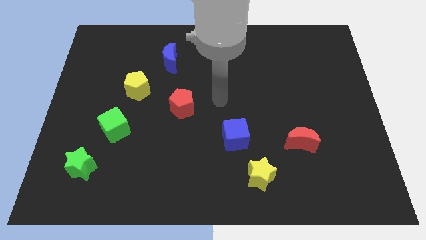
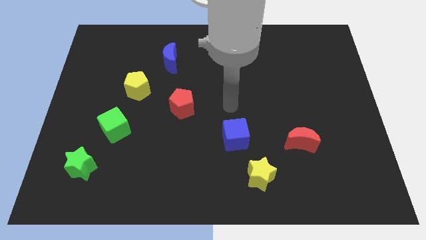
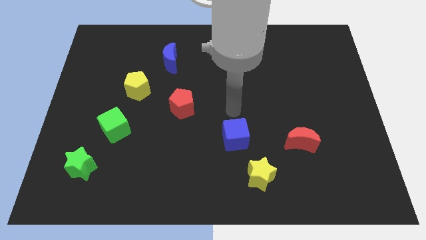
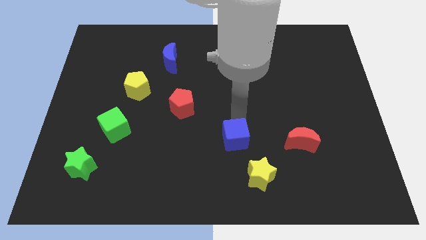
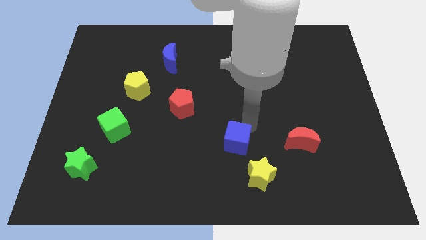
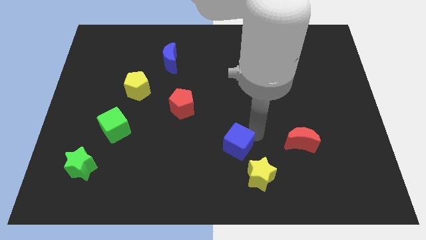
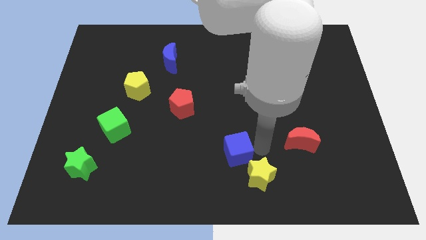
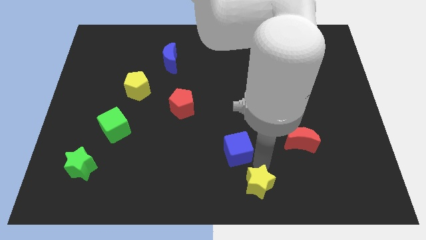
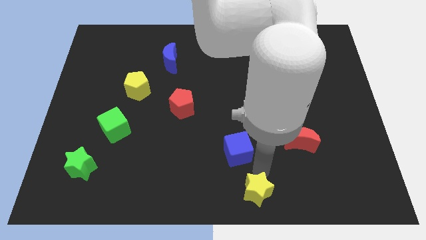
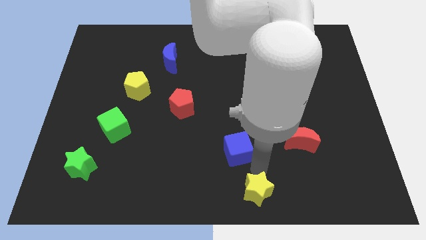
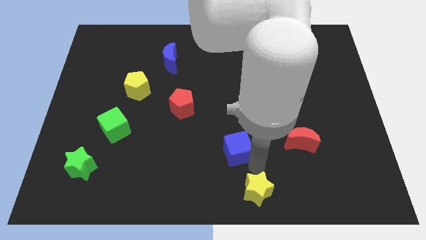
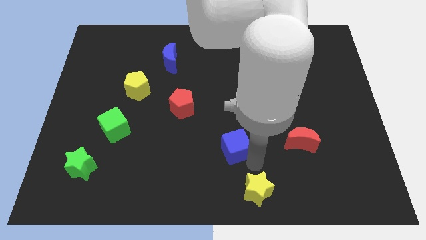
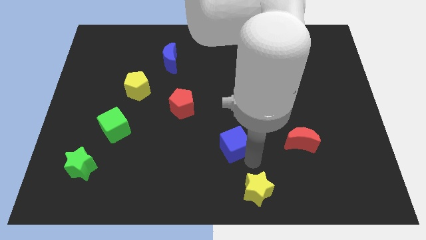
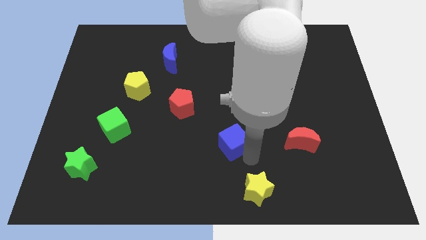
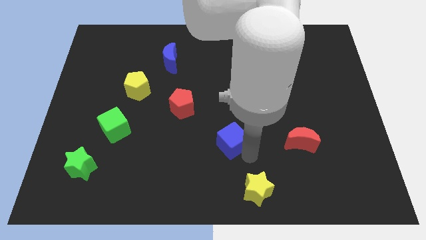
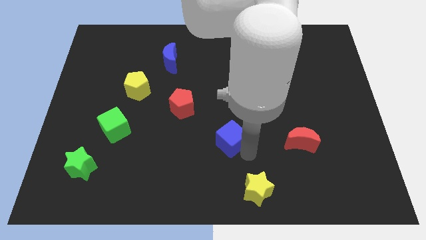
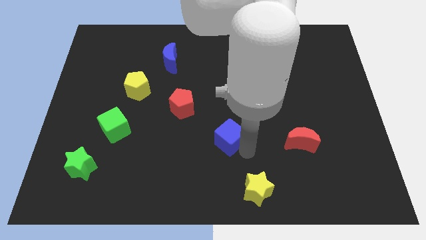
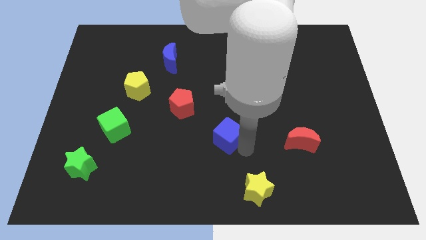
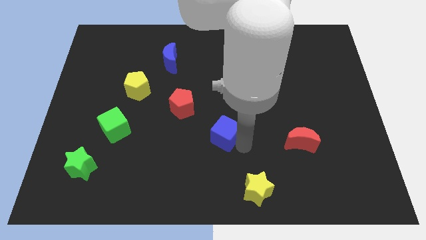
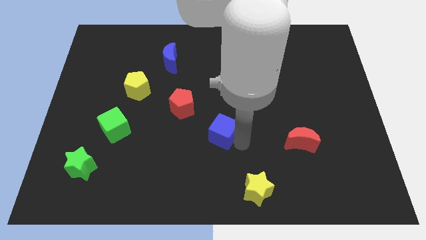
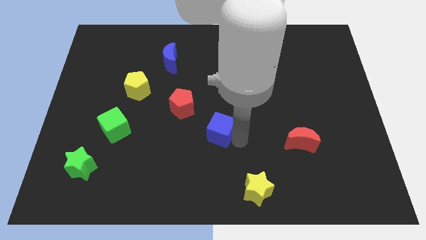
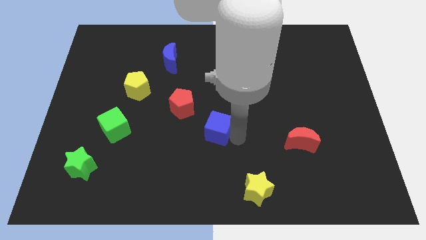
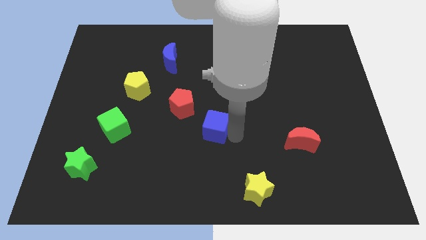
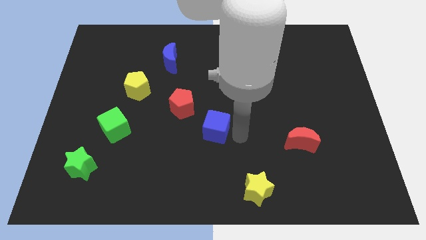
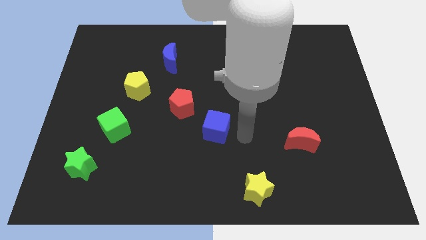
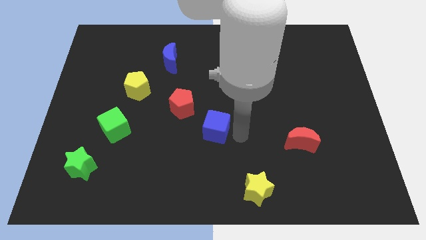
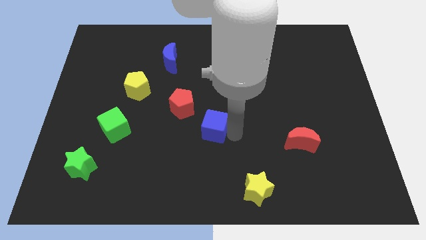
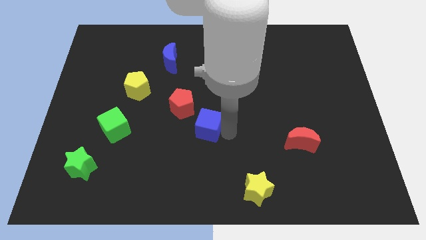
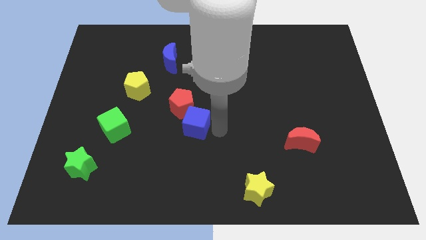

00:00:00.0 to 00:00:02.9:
move the blue cube up and to the left a little bit

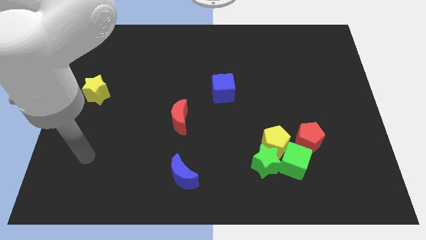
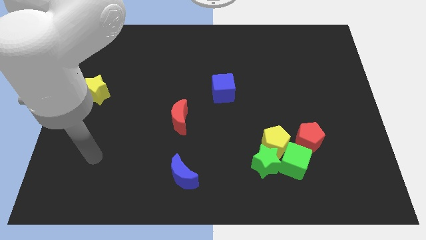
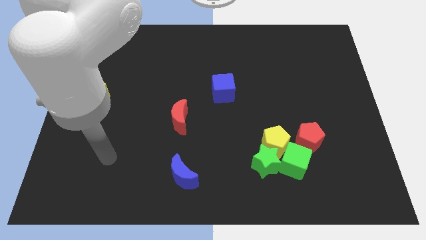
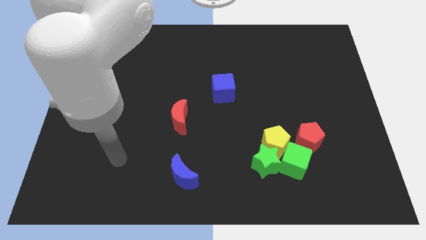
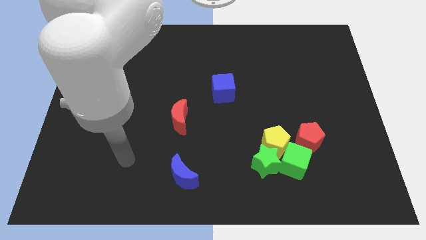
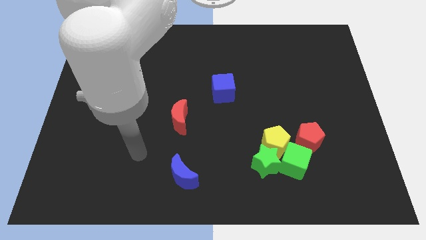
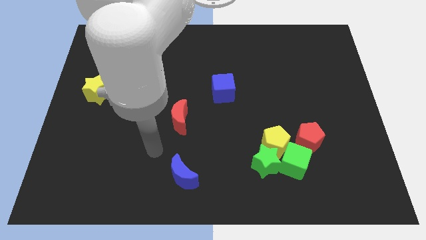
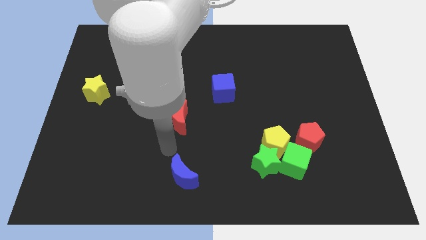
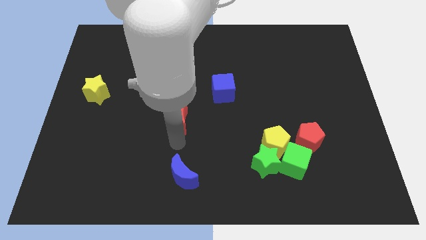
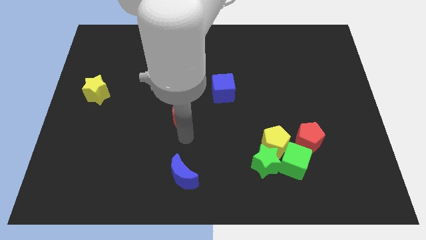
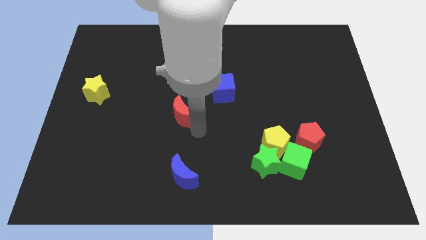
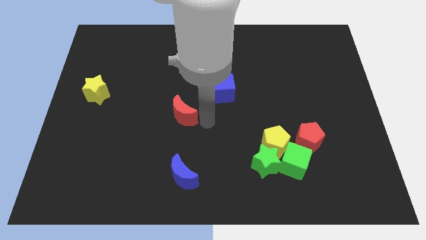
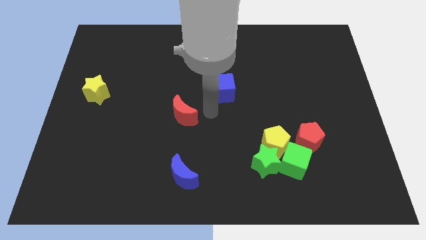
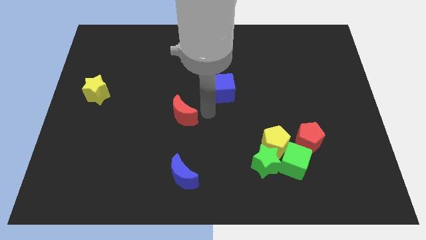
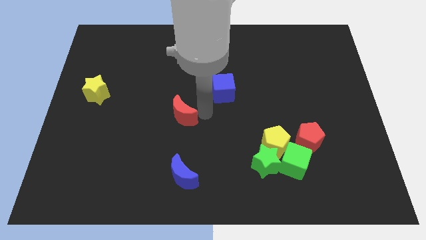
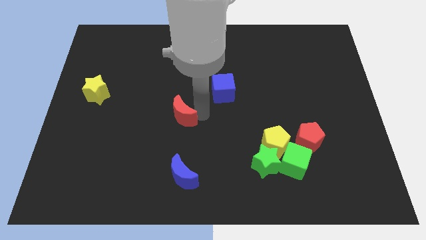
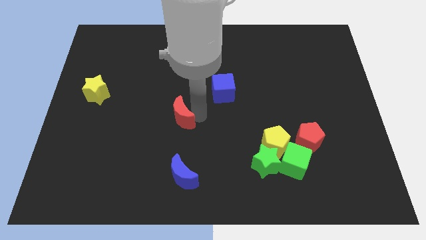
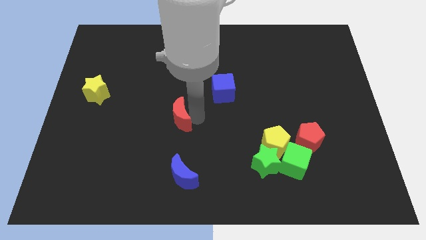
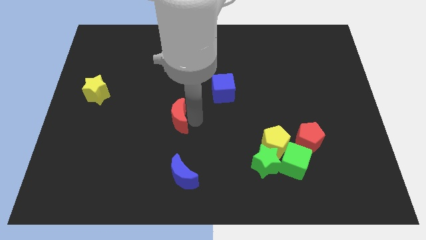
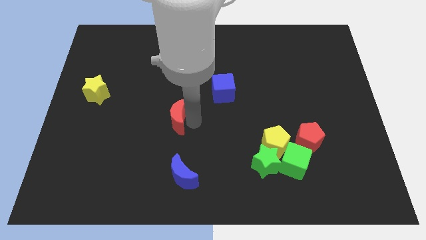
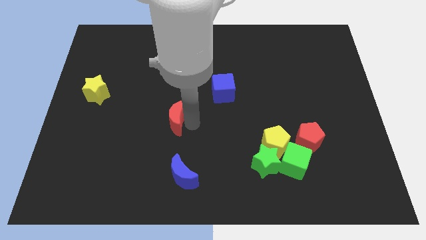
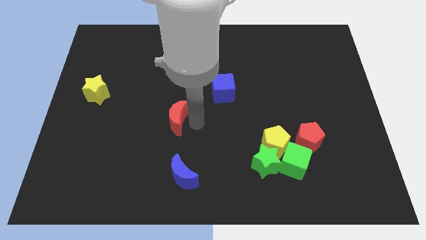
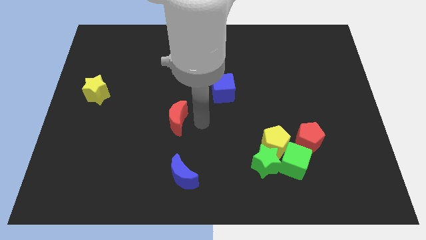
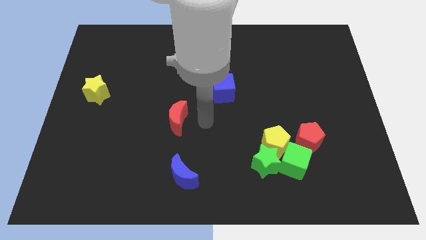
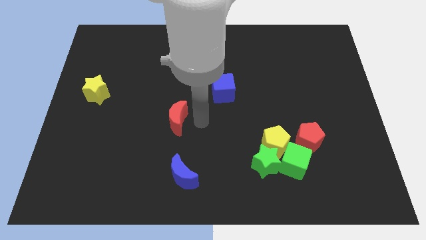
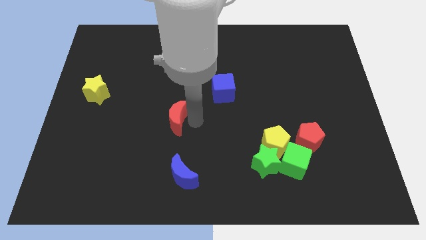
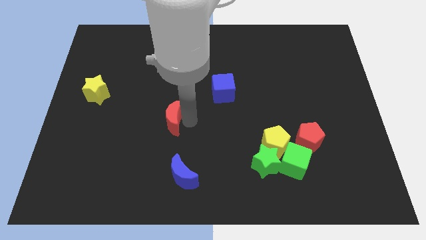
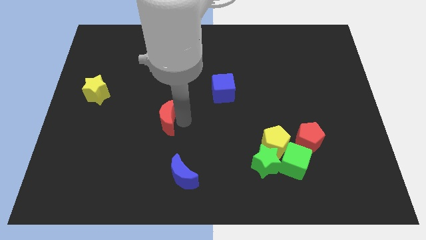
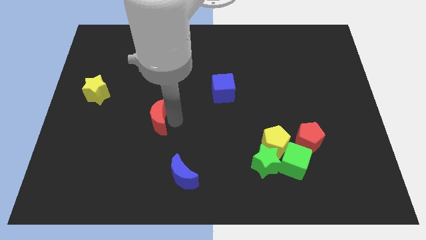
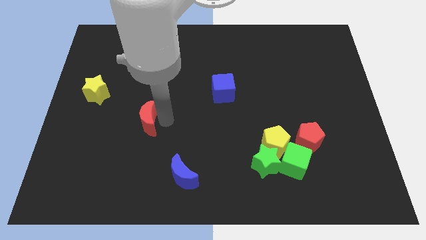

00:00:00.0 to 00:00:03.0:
slightly move the red moon to the left

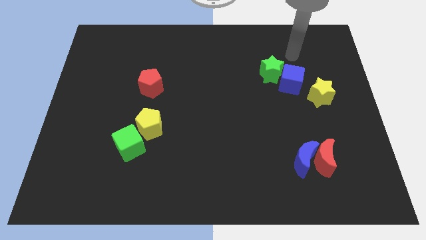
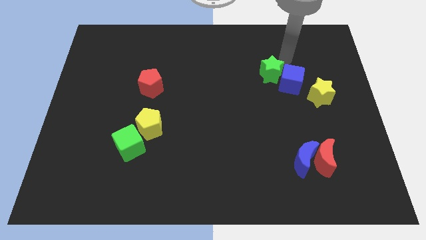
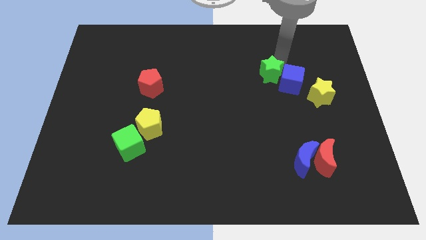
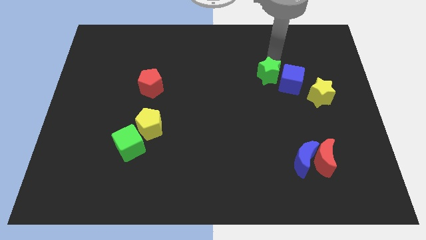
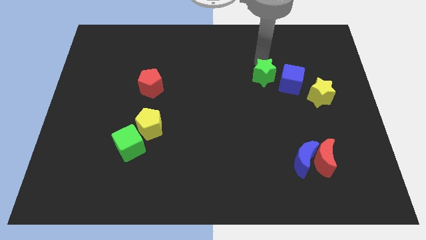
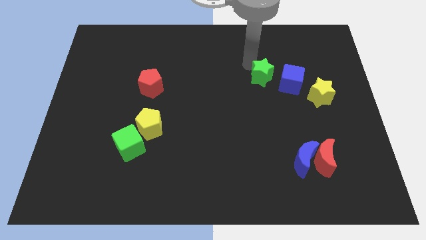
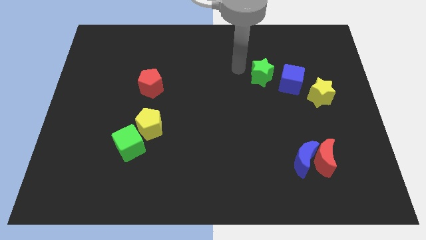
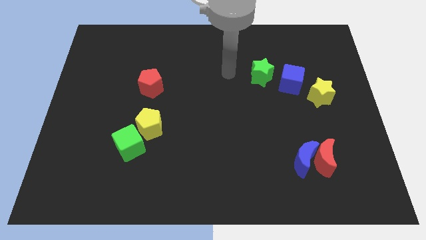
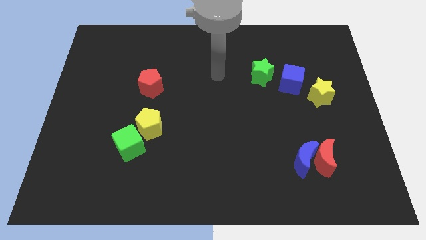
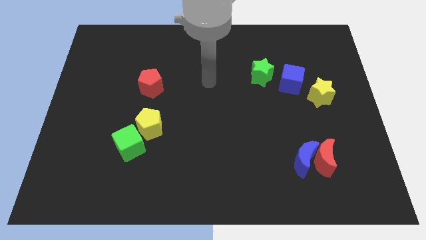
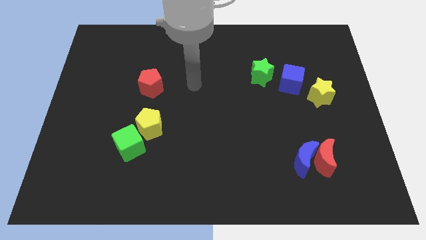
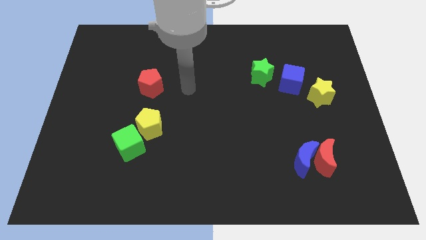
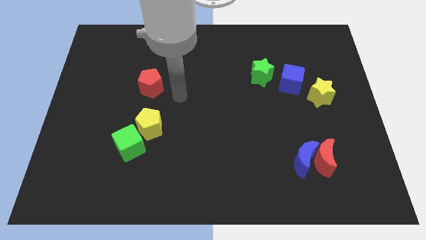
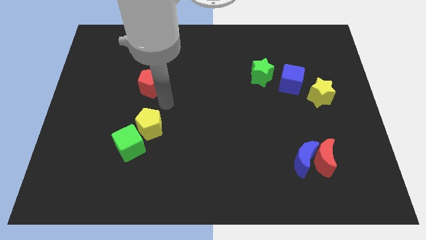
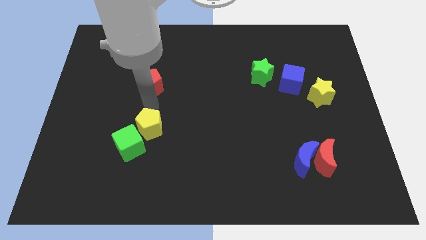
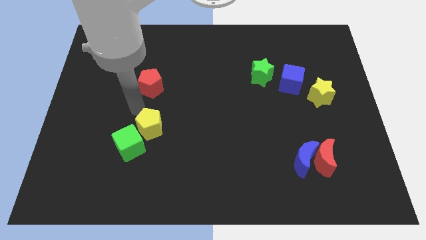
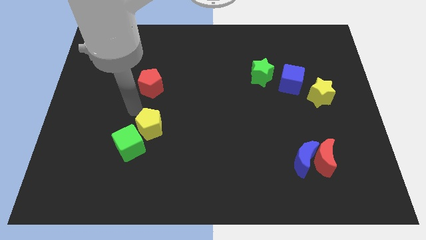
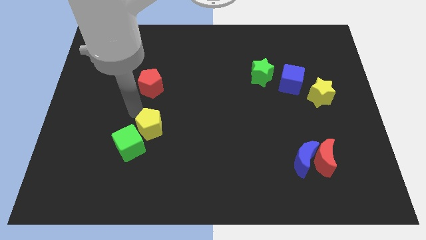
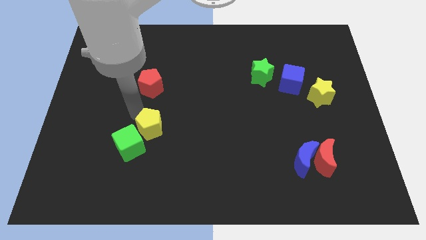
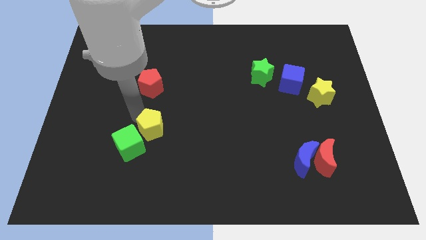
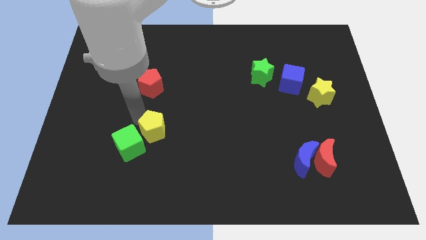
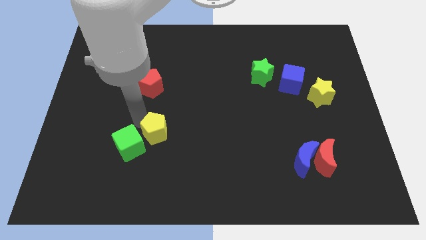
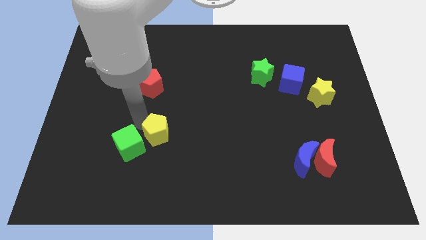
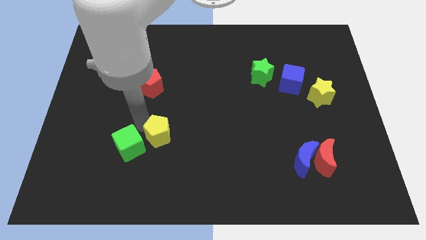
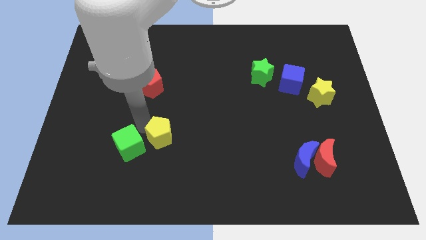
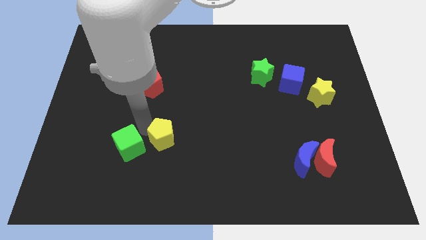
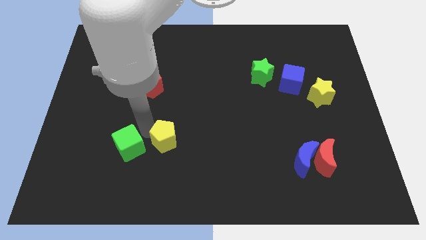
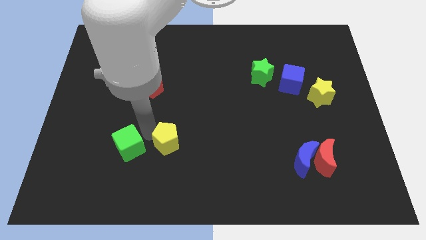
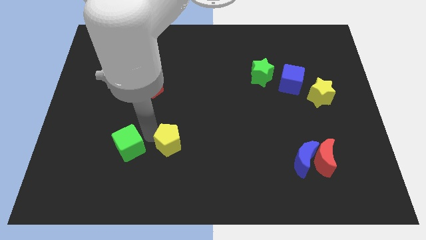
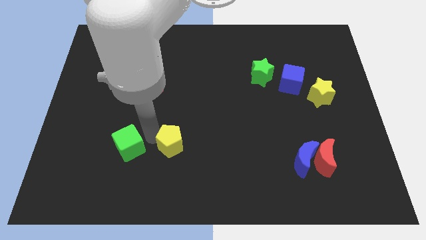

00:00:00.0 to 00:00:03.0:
slide the yellow pentagon slightly down and to the right
